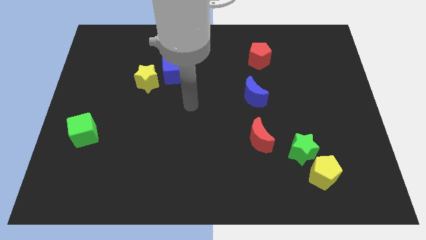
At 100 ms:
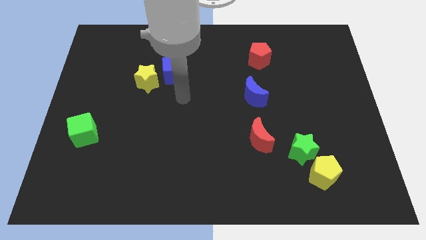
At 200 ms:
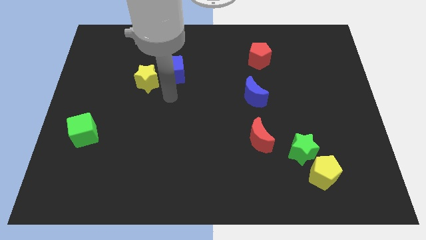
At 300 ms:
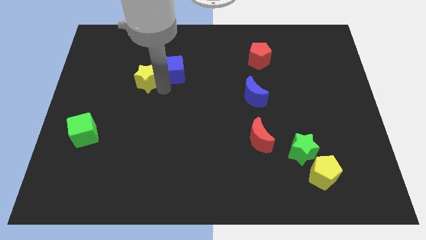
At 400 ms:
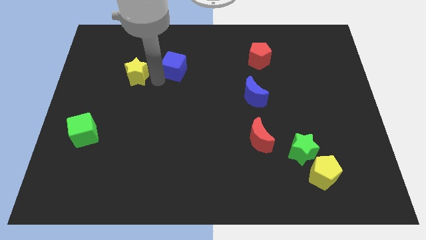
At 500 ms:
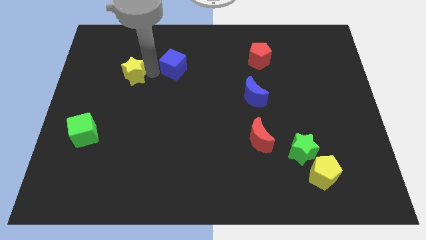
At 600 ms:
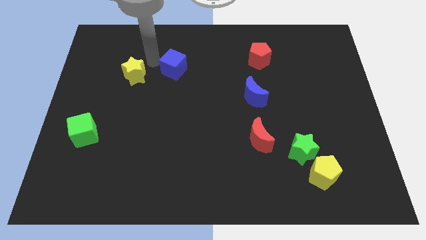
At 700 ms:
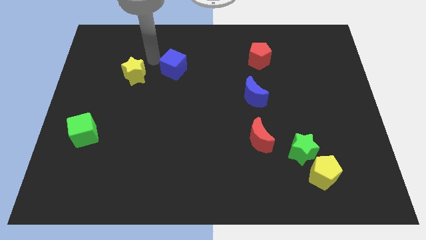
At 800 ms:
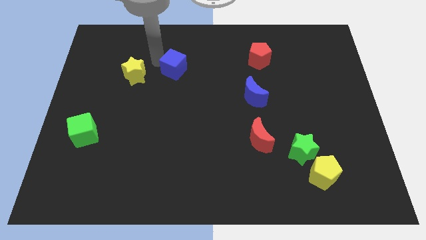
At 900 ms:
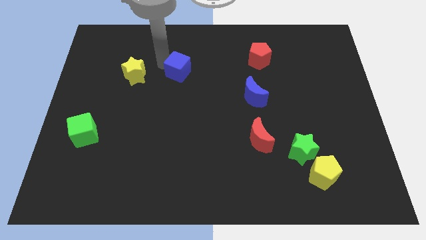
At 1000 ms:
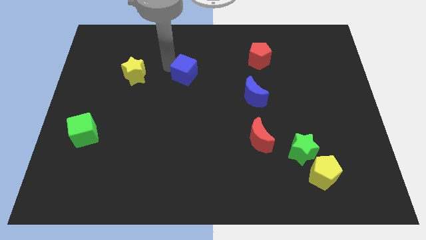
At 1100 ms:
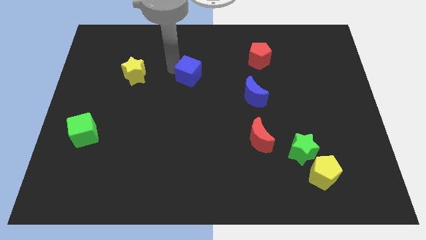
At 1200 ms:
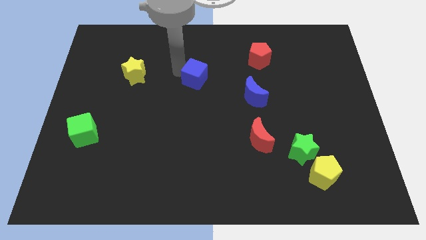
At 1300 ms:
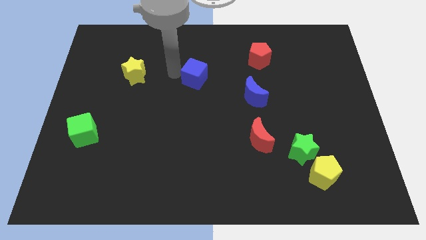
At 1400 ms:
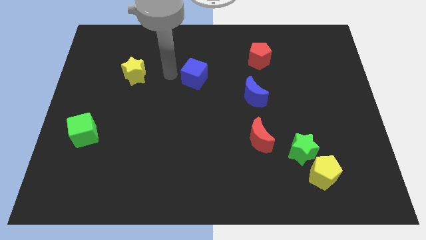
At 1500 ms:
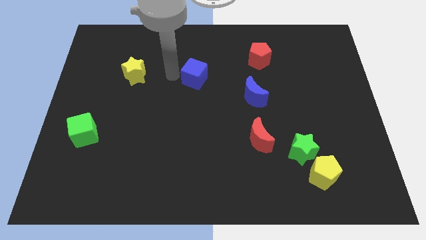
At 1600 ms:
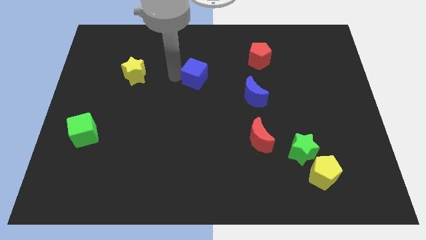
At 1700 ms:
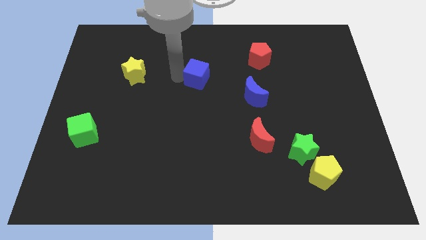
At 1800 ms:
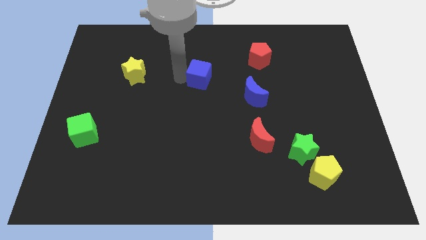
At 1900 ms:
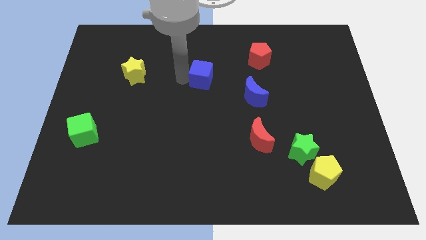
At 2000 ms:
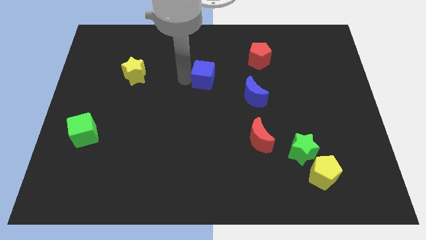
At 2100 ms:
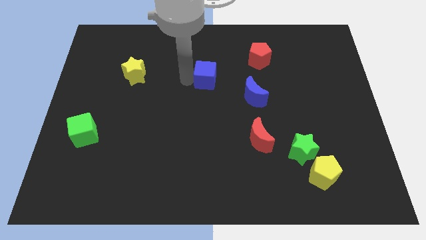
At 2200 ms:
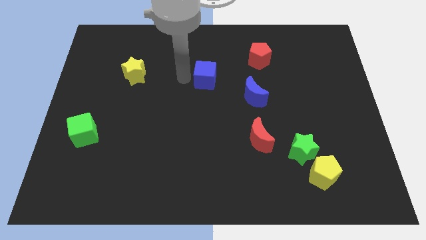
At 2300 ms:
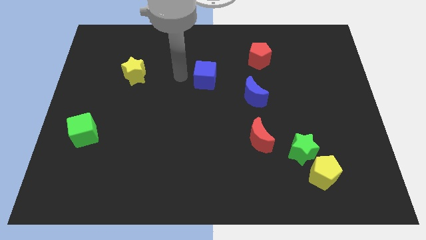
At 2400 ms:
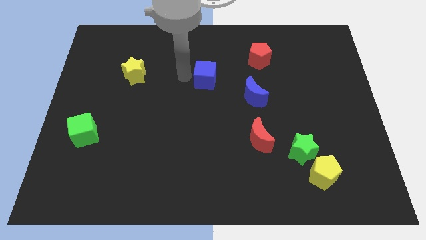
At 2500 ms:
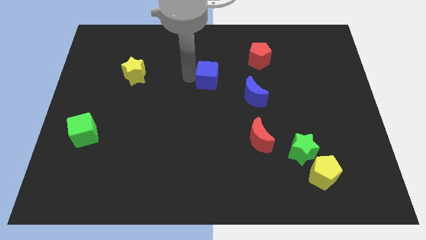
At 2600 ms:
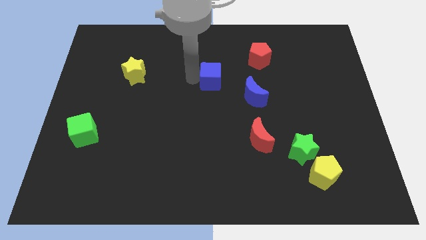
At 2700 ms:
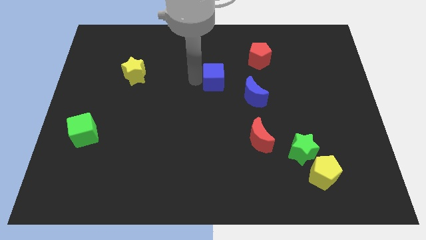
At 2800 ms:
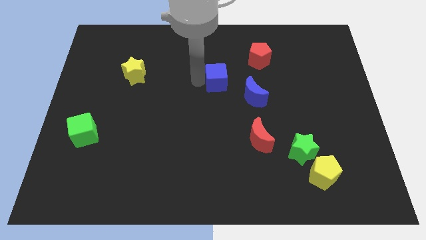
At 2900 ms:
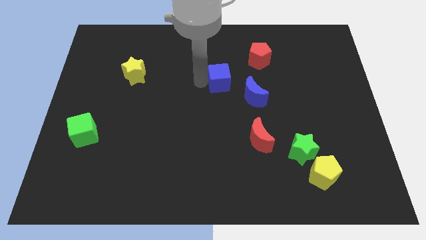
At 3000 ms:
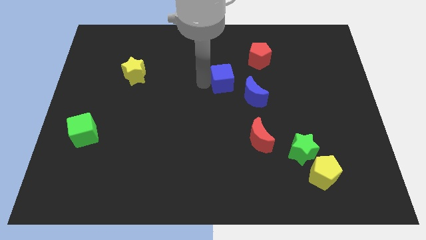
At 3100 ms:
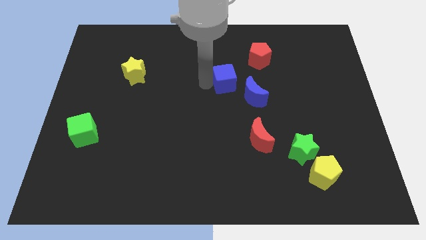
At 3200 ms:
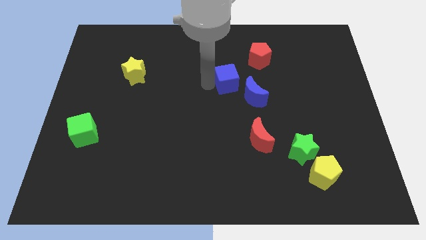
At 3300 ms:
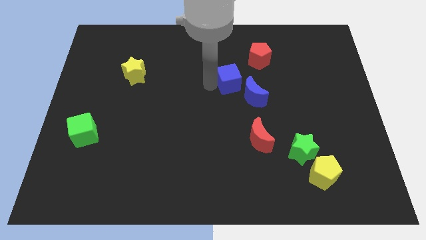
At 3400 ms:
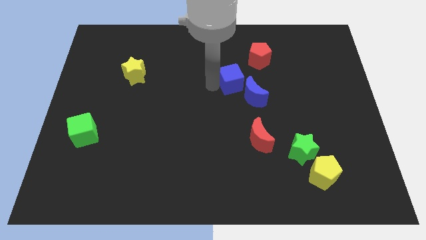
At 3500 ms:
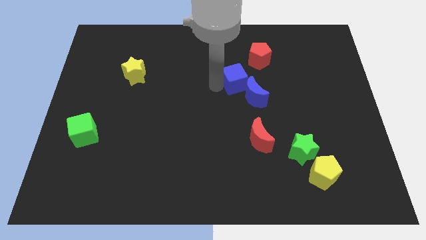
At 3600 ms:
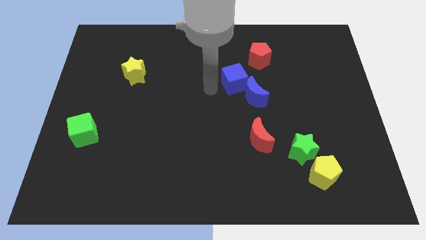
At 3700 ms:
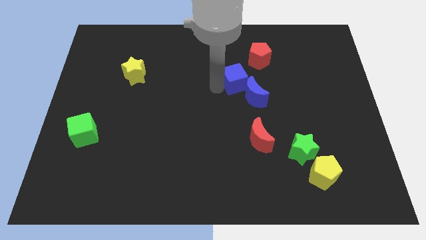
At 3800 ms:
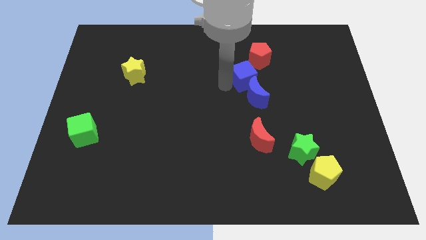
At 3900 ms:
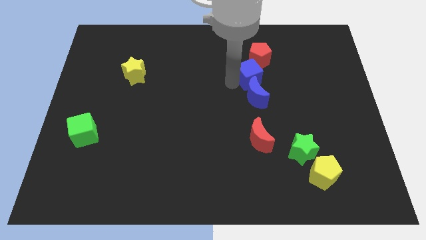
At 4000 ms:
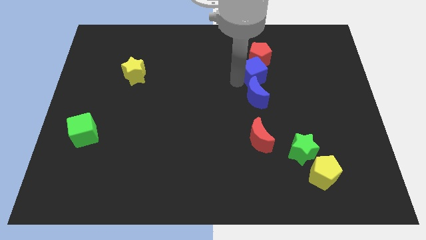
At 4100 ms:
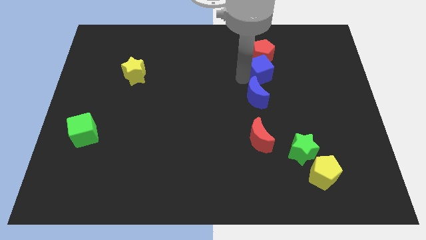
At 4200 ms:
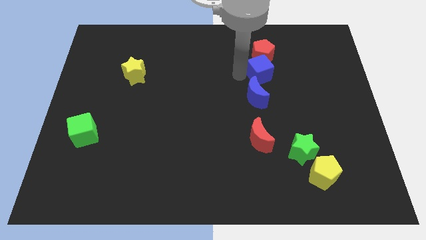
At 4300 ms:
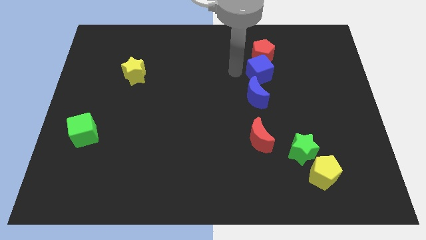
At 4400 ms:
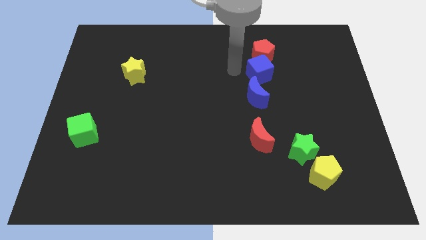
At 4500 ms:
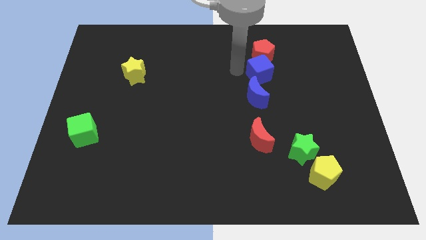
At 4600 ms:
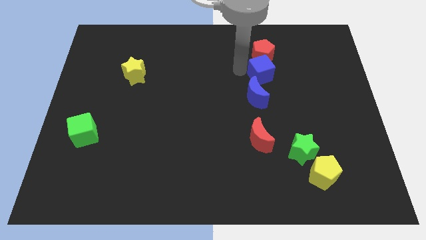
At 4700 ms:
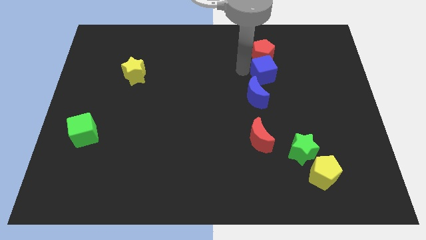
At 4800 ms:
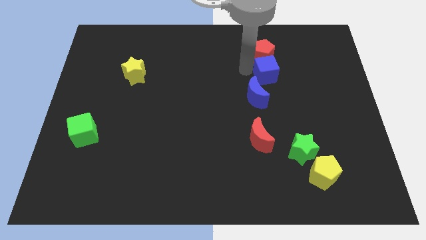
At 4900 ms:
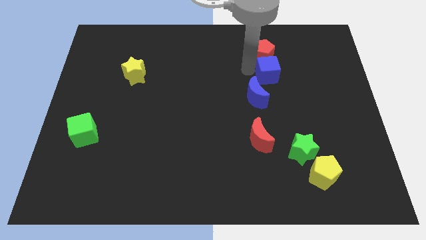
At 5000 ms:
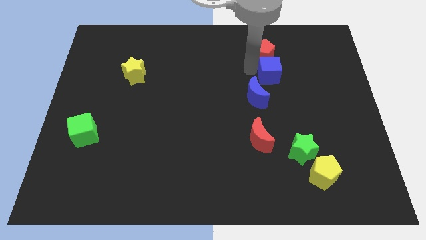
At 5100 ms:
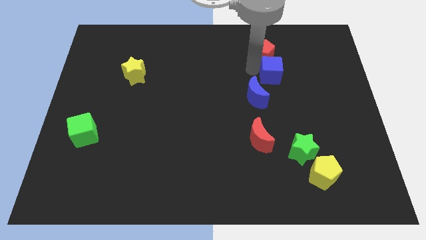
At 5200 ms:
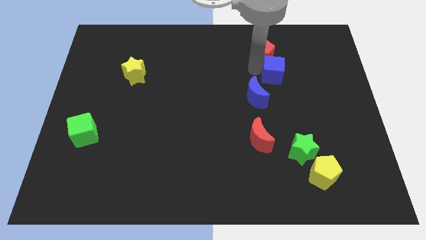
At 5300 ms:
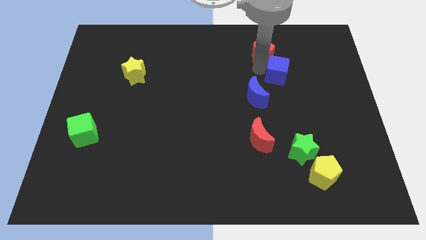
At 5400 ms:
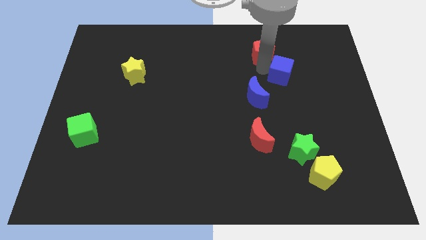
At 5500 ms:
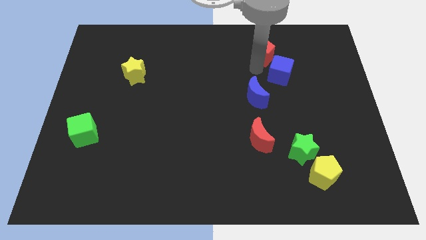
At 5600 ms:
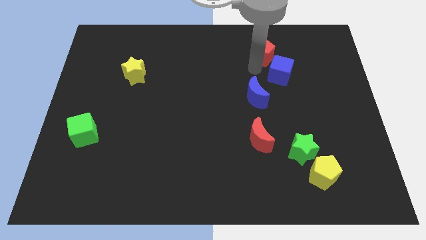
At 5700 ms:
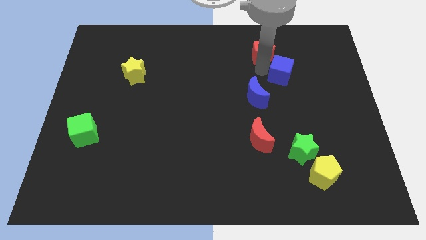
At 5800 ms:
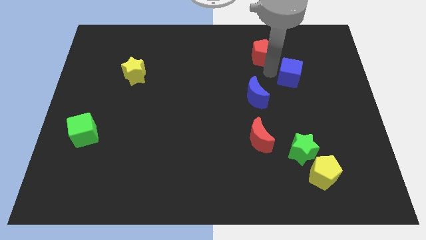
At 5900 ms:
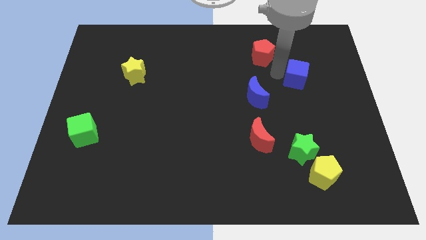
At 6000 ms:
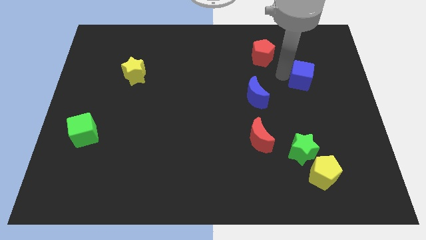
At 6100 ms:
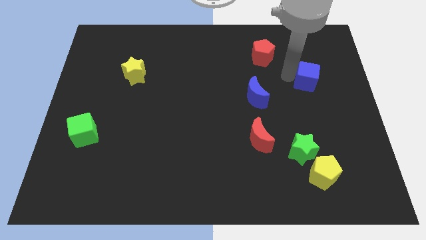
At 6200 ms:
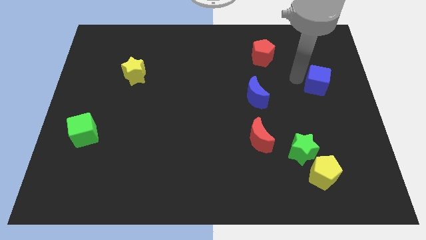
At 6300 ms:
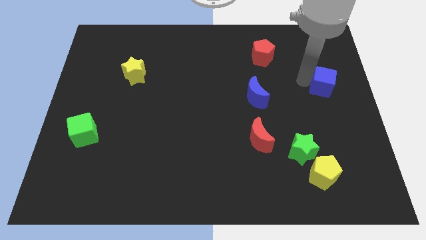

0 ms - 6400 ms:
push the blue cube to the right side
